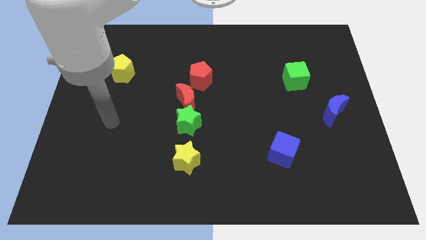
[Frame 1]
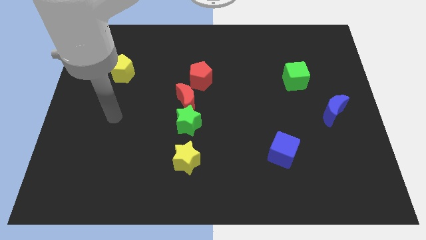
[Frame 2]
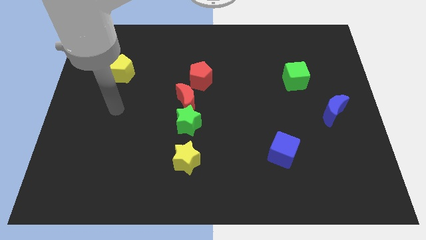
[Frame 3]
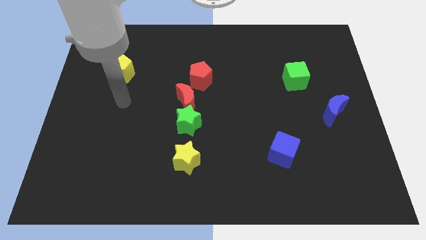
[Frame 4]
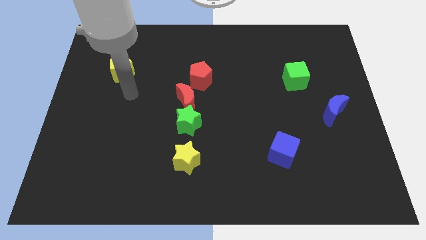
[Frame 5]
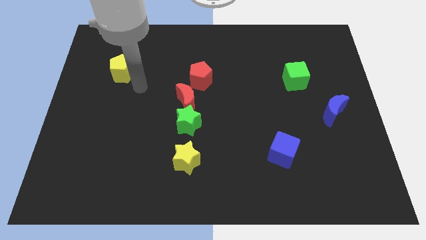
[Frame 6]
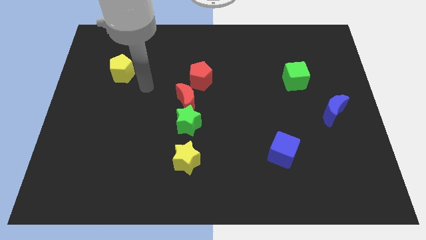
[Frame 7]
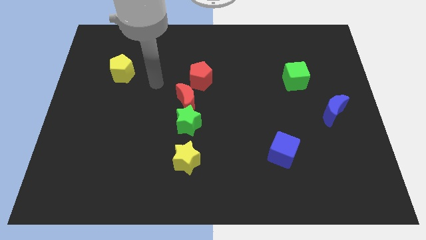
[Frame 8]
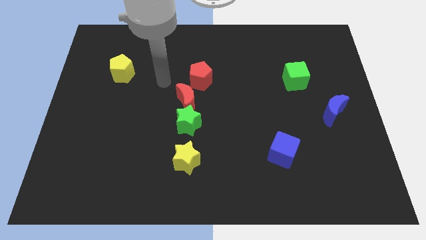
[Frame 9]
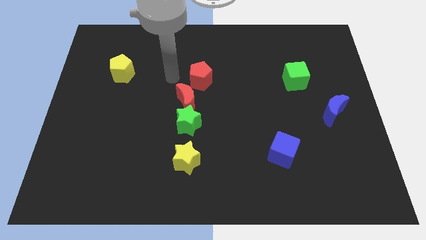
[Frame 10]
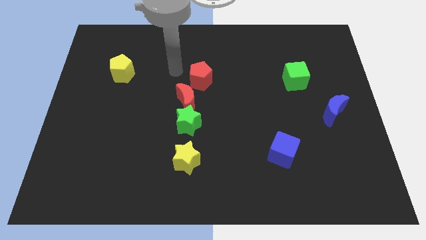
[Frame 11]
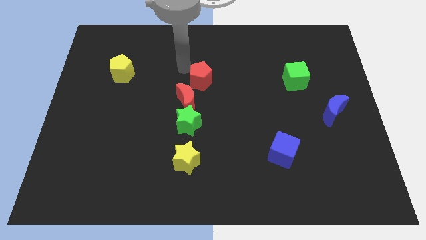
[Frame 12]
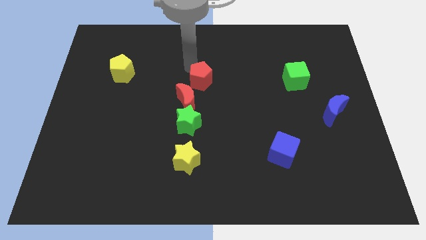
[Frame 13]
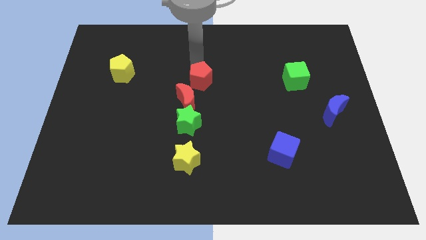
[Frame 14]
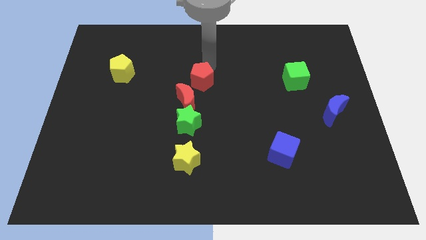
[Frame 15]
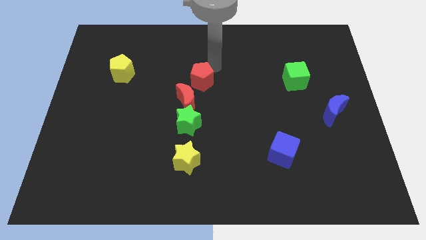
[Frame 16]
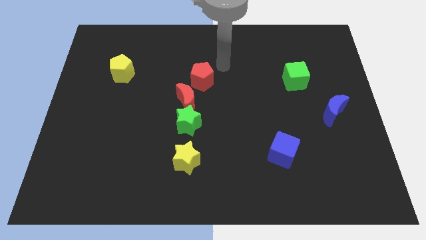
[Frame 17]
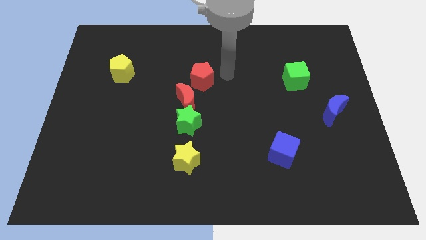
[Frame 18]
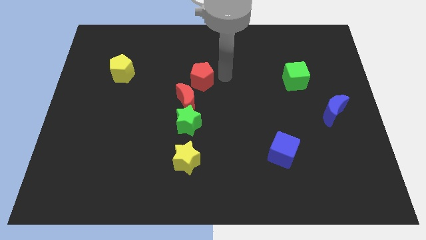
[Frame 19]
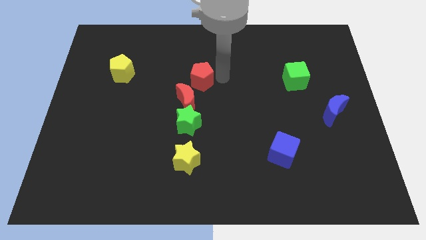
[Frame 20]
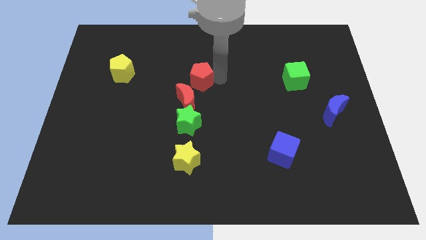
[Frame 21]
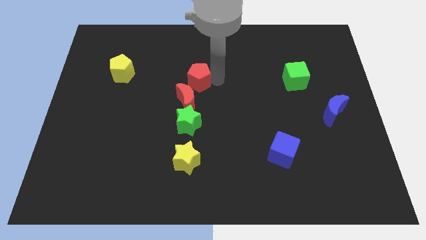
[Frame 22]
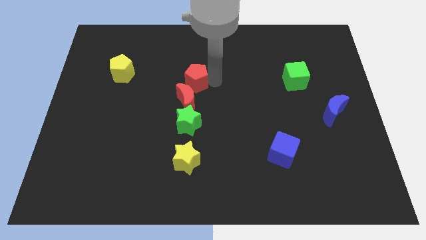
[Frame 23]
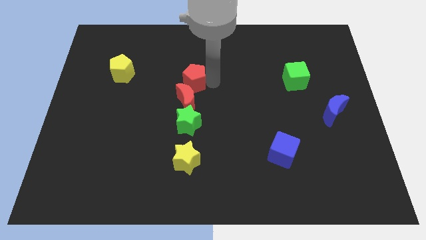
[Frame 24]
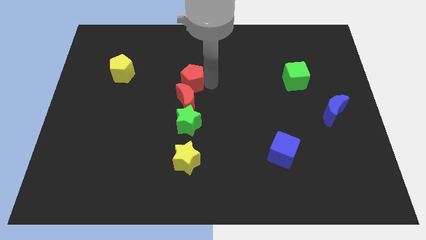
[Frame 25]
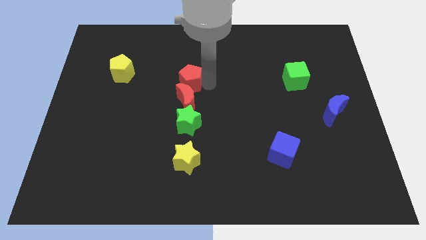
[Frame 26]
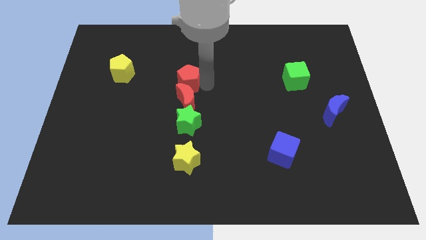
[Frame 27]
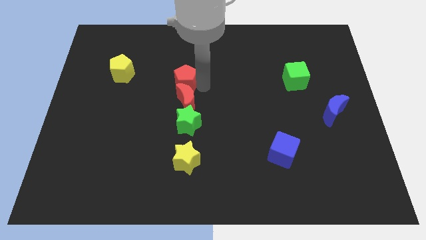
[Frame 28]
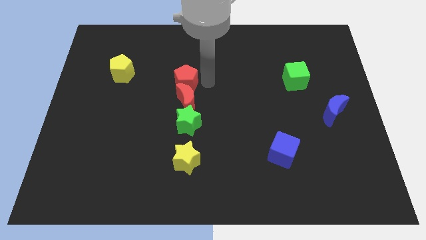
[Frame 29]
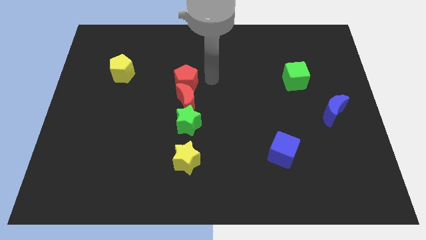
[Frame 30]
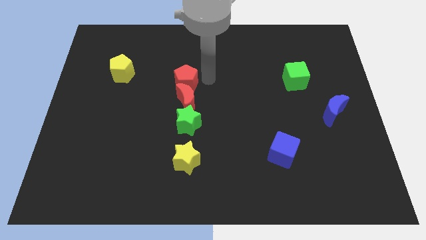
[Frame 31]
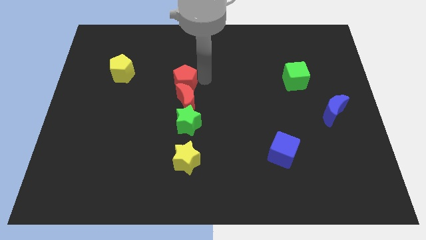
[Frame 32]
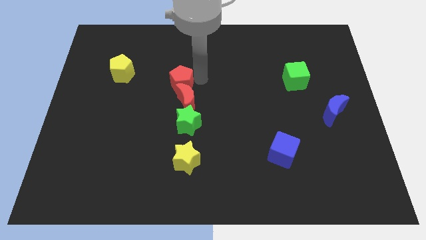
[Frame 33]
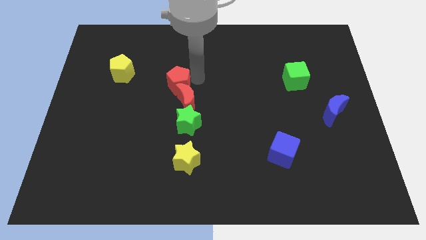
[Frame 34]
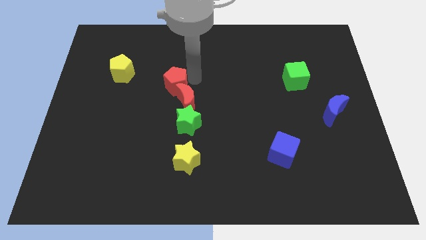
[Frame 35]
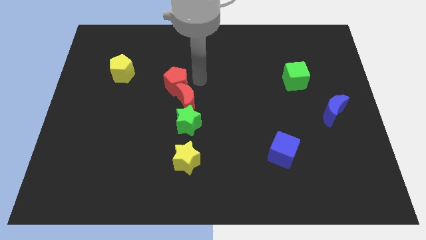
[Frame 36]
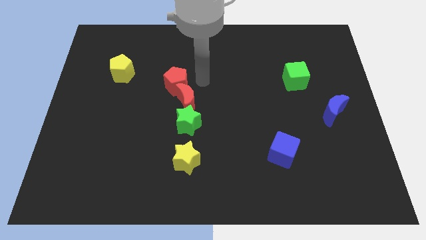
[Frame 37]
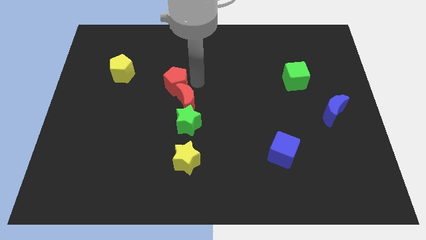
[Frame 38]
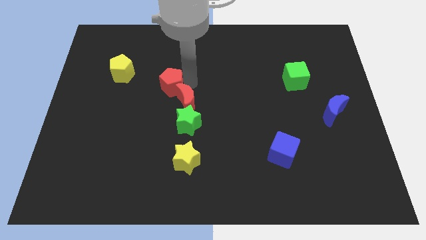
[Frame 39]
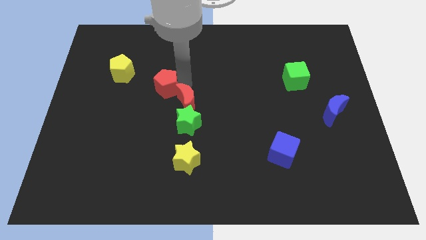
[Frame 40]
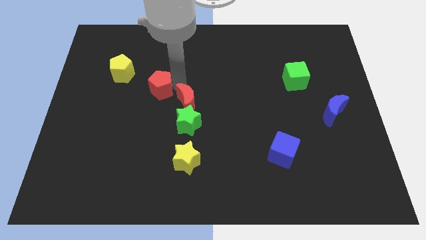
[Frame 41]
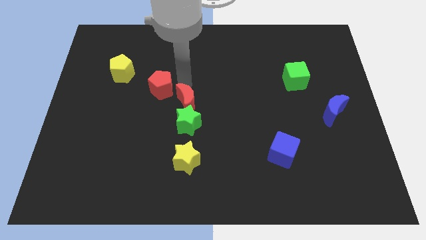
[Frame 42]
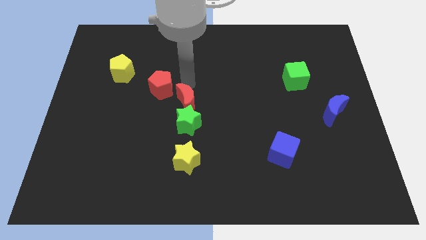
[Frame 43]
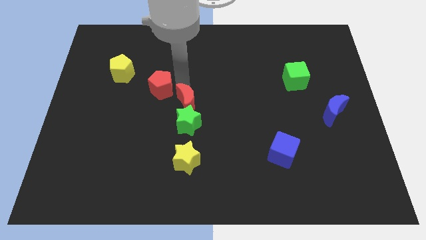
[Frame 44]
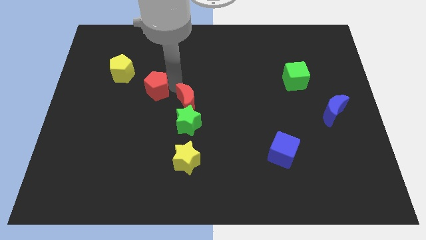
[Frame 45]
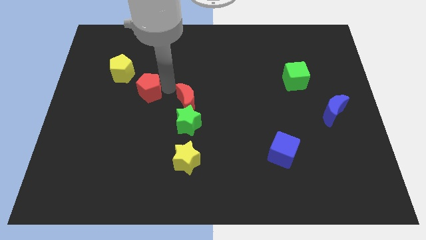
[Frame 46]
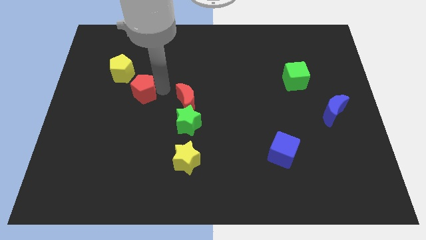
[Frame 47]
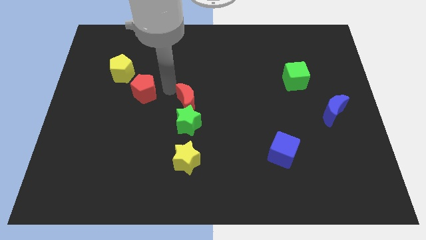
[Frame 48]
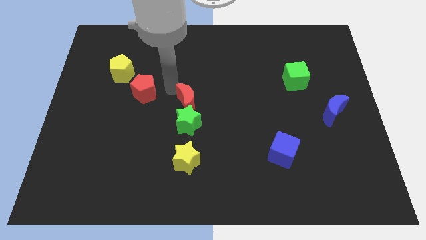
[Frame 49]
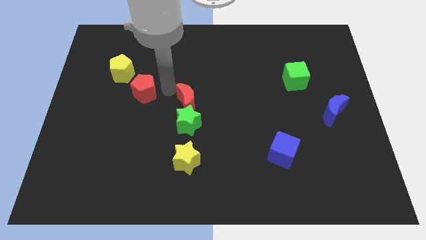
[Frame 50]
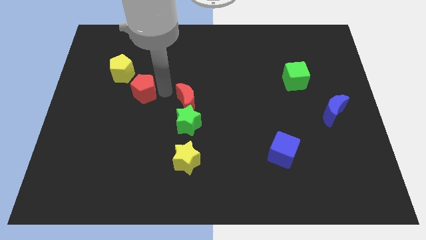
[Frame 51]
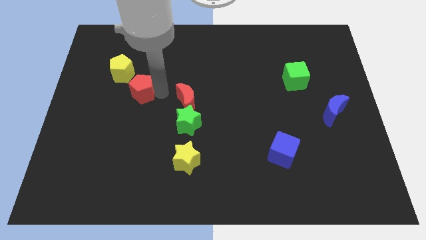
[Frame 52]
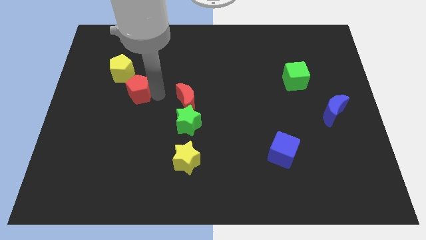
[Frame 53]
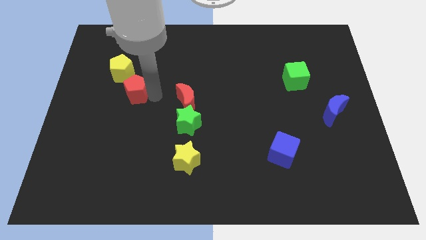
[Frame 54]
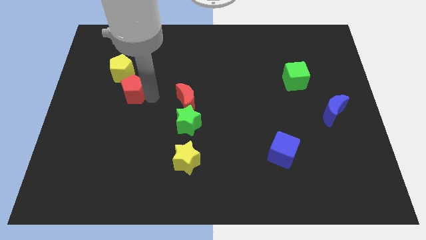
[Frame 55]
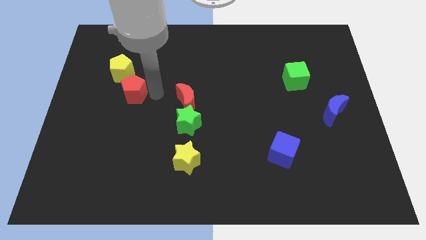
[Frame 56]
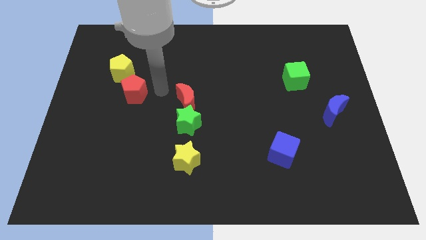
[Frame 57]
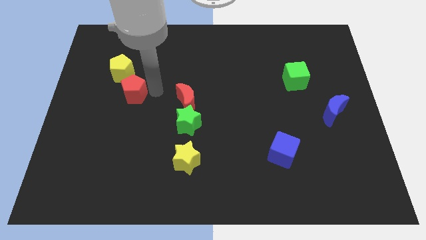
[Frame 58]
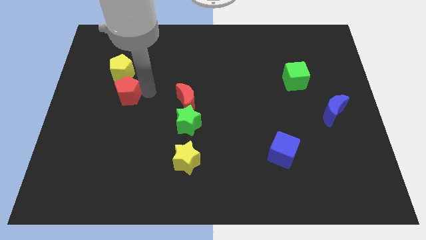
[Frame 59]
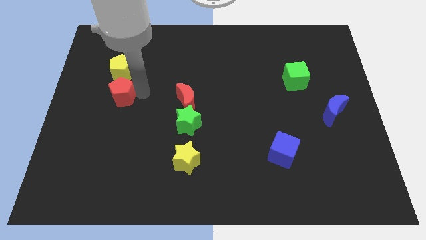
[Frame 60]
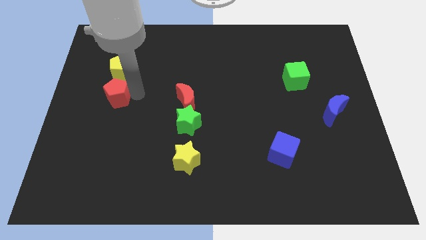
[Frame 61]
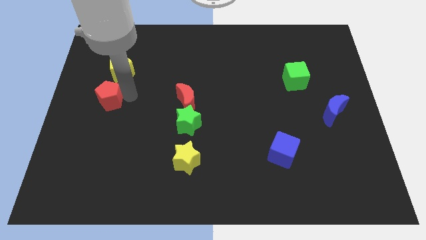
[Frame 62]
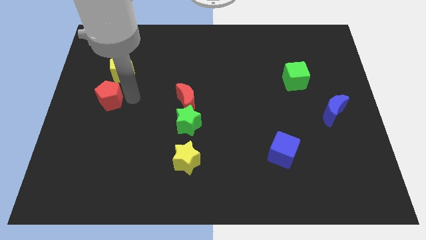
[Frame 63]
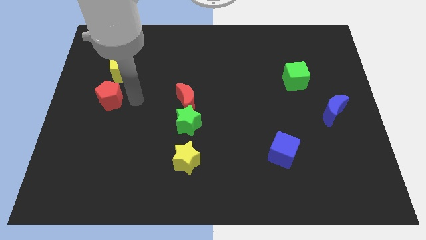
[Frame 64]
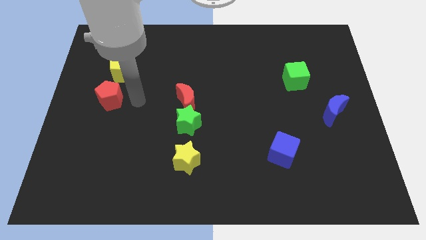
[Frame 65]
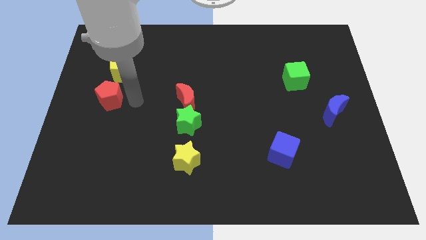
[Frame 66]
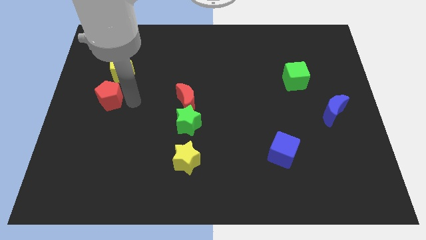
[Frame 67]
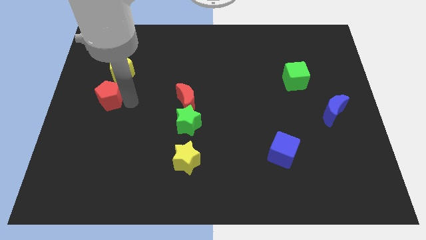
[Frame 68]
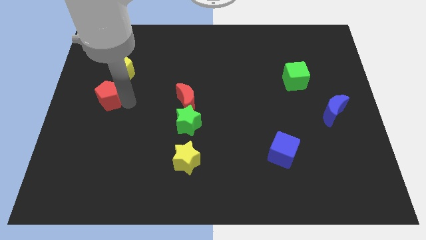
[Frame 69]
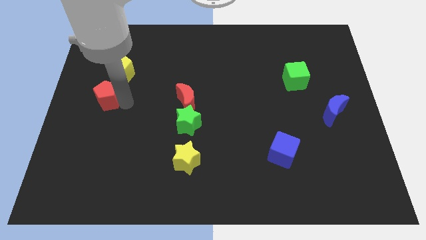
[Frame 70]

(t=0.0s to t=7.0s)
put the red pentagon to the left side
